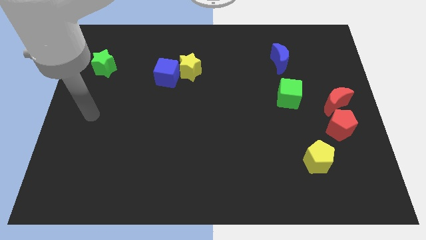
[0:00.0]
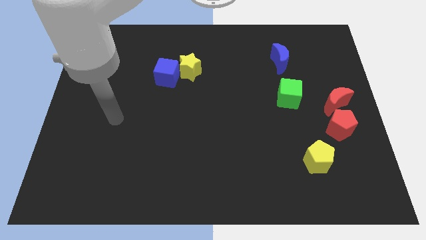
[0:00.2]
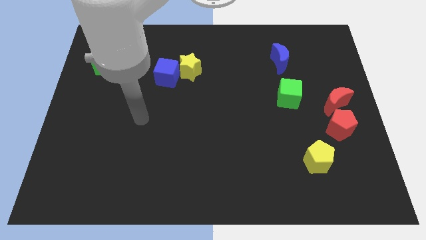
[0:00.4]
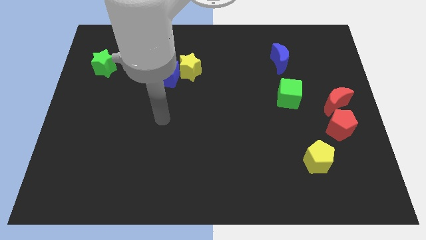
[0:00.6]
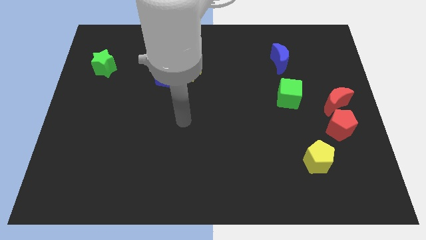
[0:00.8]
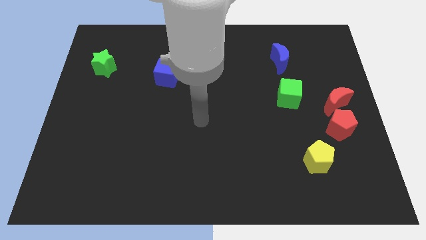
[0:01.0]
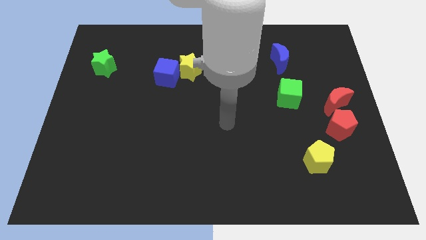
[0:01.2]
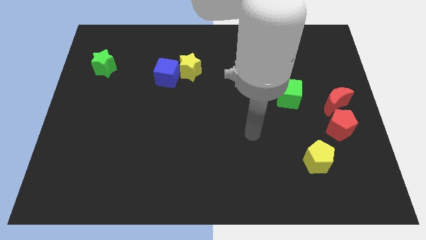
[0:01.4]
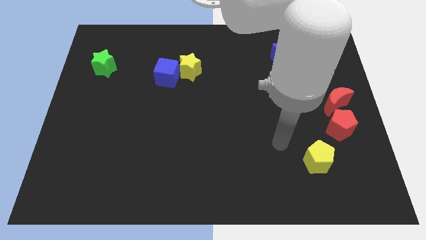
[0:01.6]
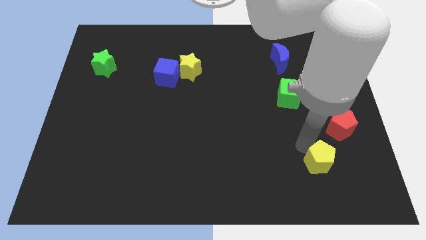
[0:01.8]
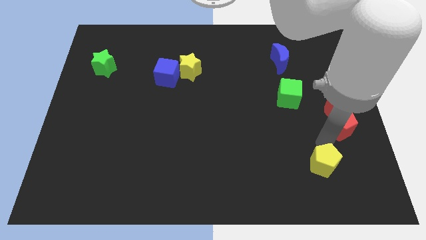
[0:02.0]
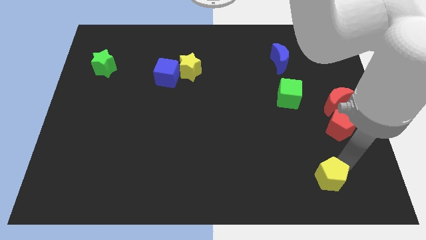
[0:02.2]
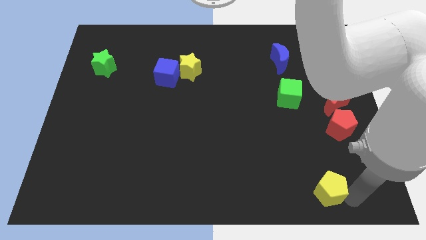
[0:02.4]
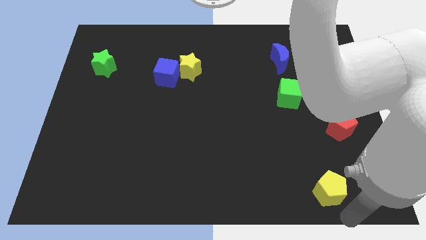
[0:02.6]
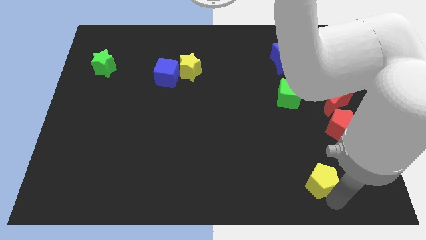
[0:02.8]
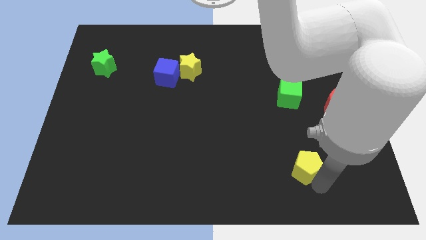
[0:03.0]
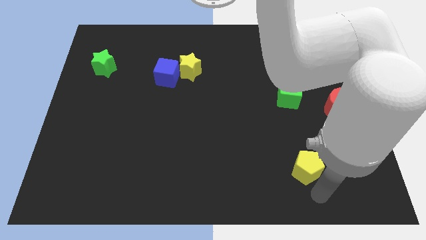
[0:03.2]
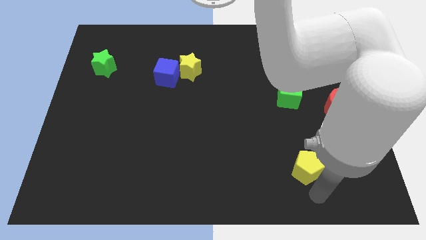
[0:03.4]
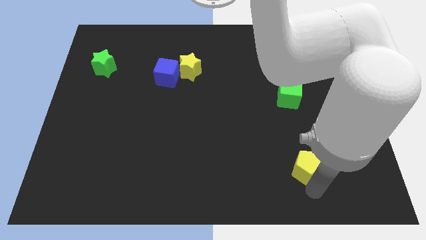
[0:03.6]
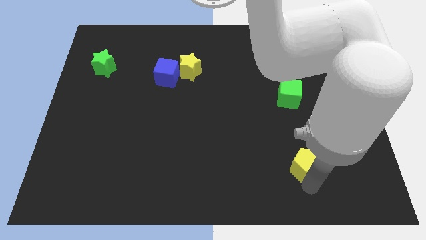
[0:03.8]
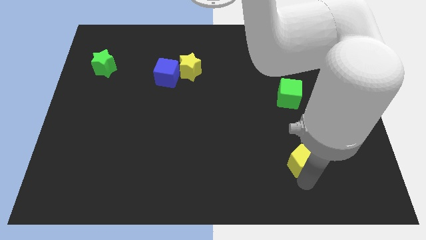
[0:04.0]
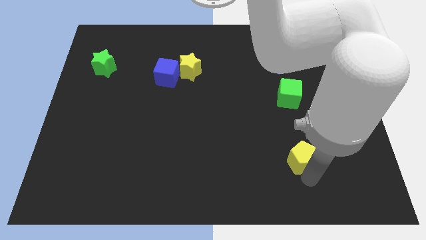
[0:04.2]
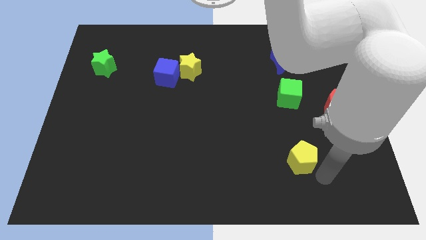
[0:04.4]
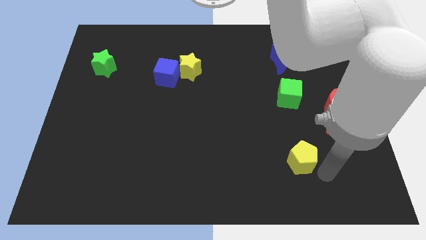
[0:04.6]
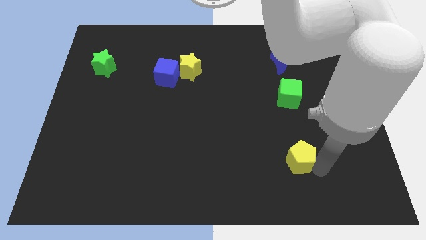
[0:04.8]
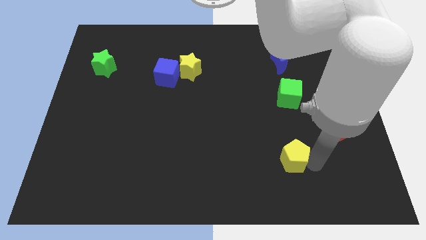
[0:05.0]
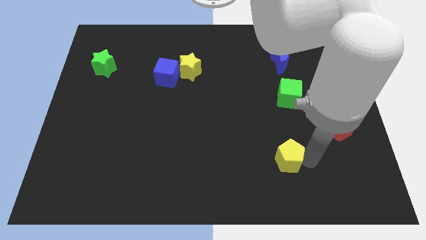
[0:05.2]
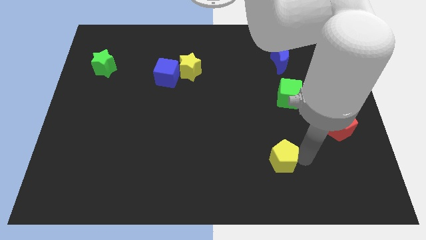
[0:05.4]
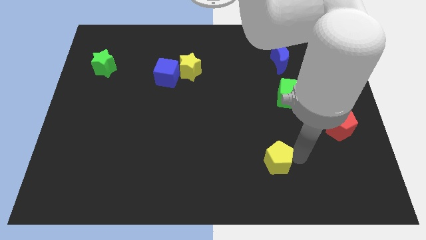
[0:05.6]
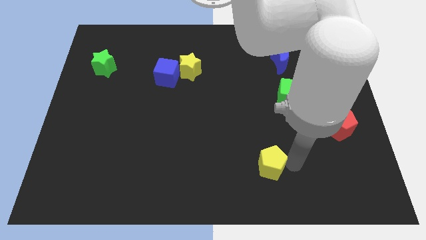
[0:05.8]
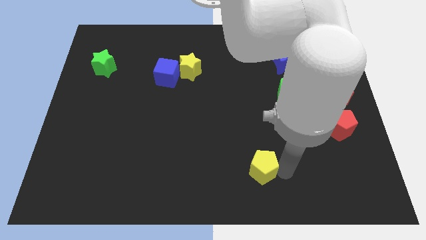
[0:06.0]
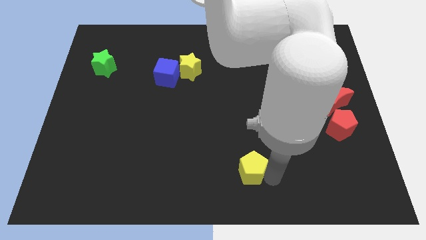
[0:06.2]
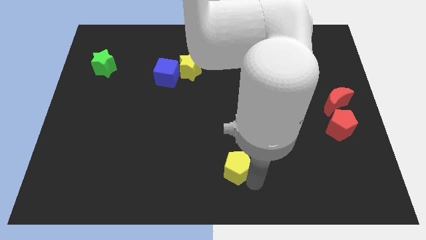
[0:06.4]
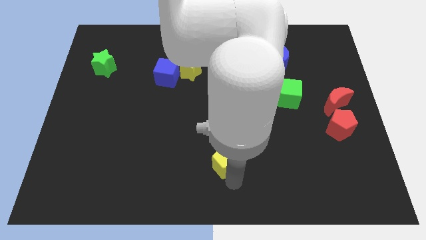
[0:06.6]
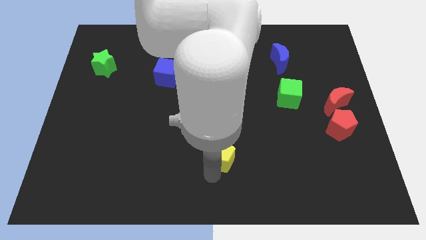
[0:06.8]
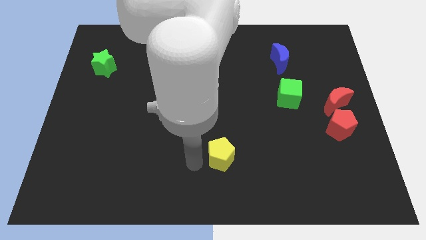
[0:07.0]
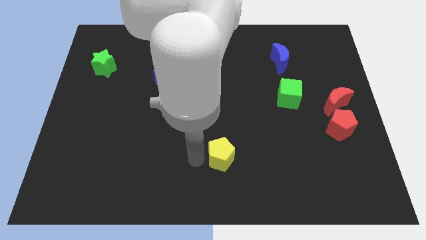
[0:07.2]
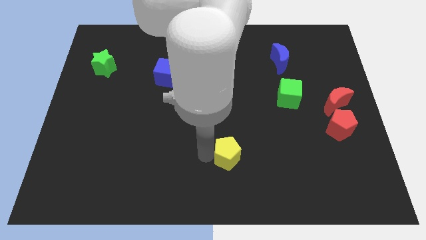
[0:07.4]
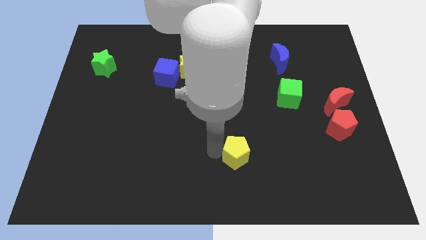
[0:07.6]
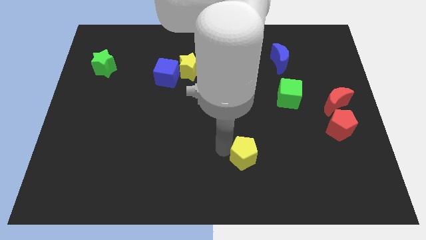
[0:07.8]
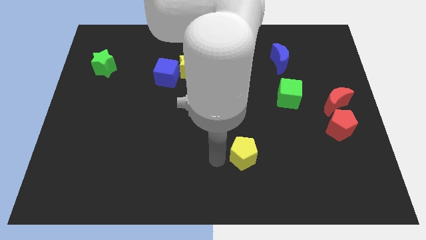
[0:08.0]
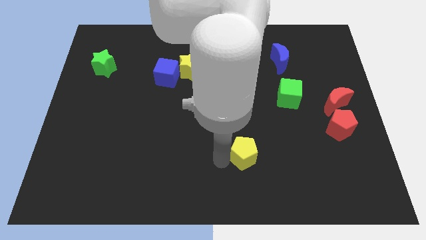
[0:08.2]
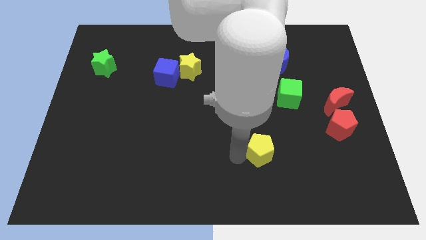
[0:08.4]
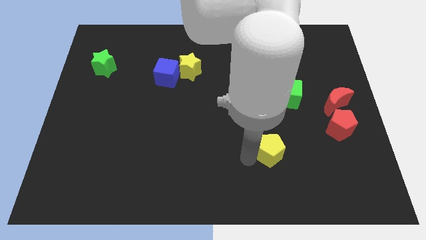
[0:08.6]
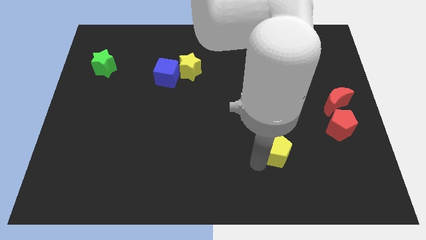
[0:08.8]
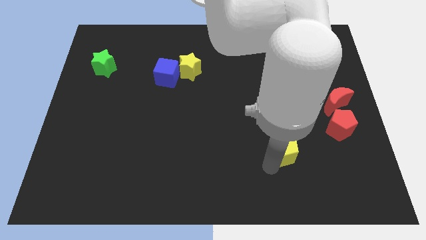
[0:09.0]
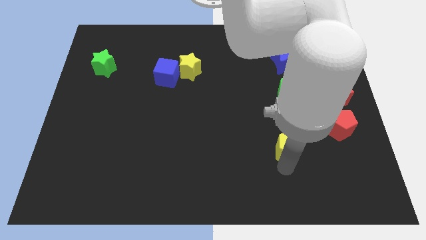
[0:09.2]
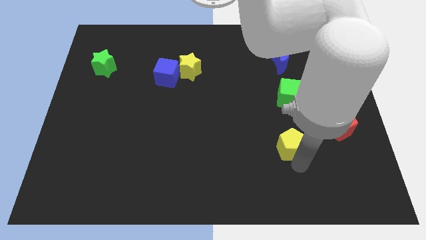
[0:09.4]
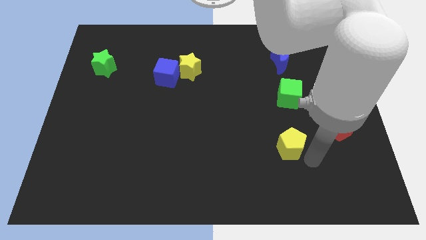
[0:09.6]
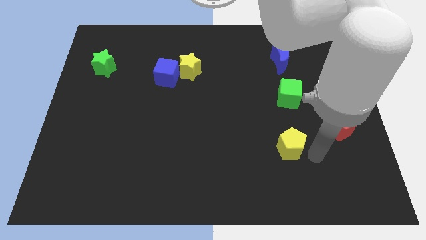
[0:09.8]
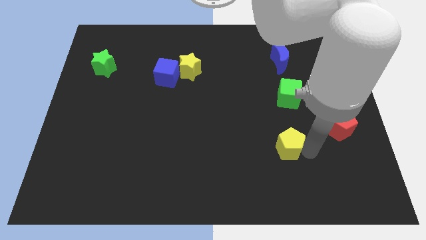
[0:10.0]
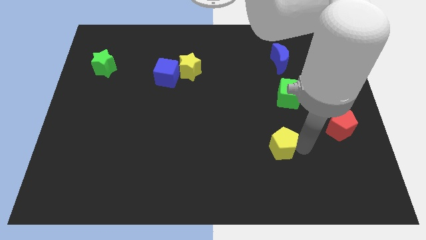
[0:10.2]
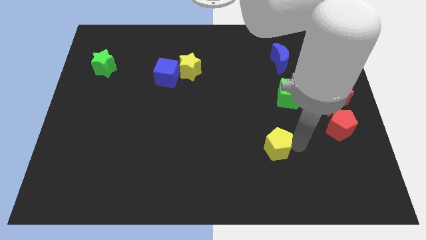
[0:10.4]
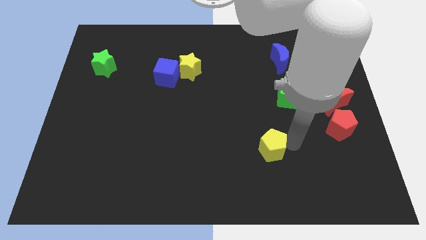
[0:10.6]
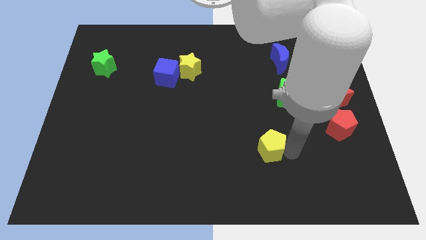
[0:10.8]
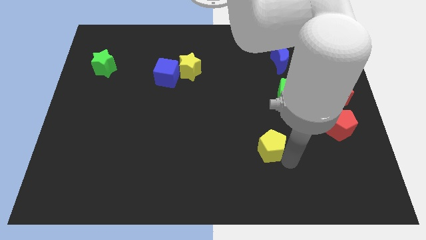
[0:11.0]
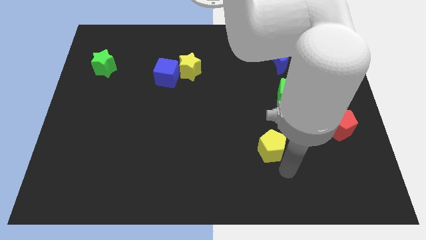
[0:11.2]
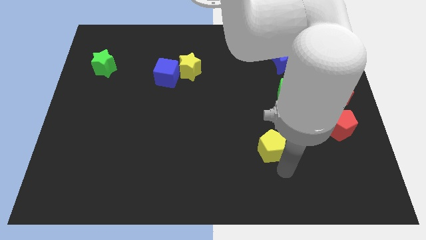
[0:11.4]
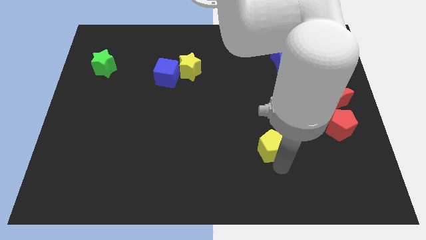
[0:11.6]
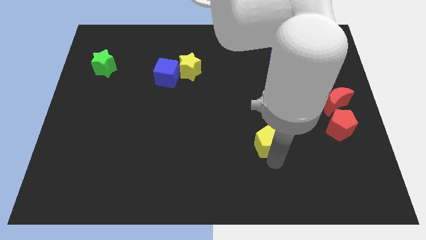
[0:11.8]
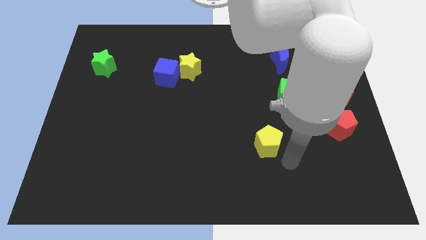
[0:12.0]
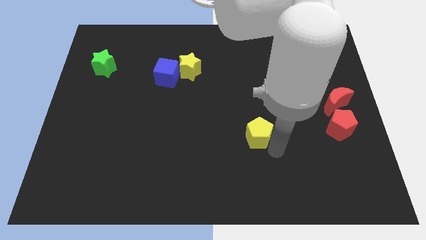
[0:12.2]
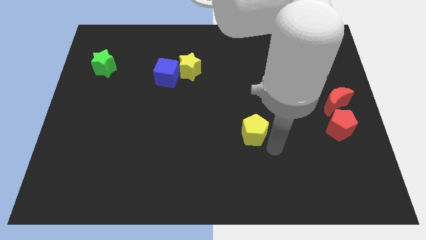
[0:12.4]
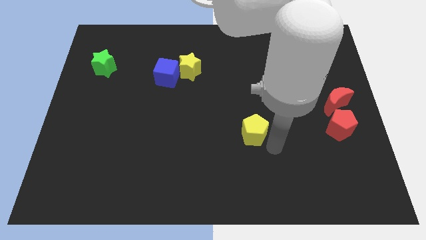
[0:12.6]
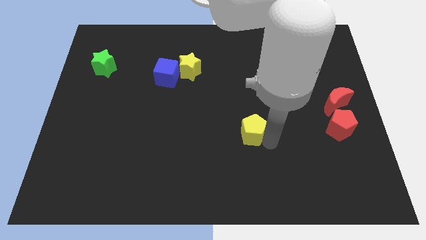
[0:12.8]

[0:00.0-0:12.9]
put the yellow pentagon to the middle

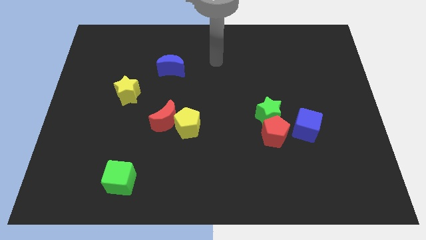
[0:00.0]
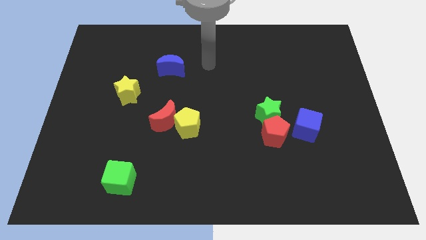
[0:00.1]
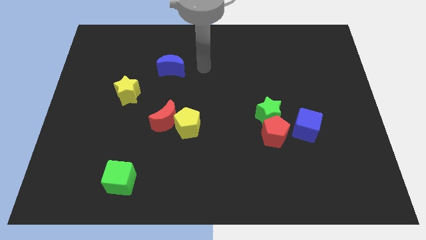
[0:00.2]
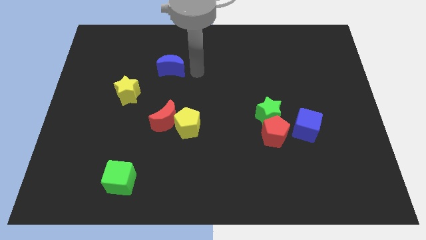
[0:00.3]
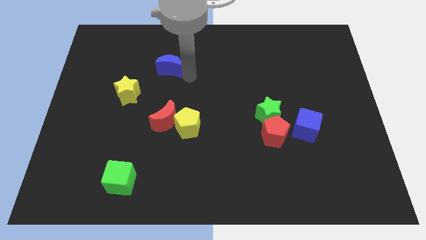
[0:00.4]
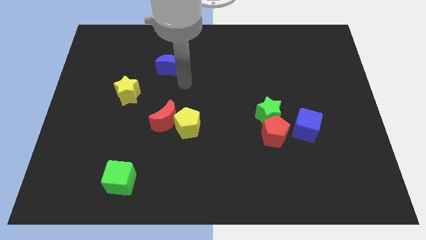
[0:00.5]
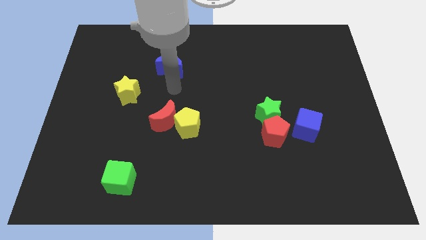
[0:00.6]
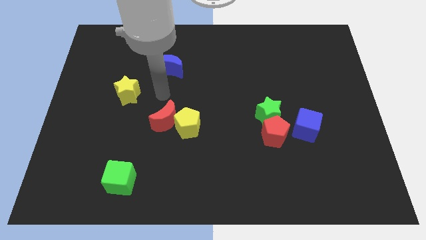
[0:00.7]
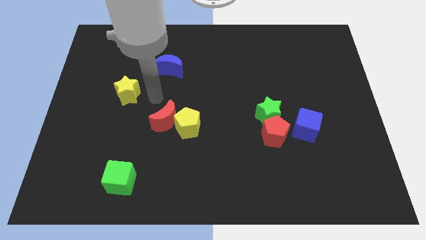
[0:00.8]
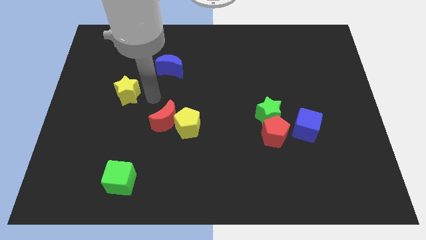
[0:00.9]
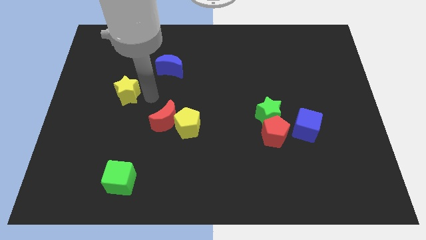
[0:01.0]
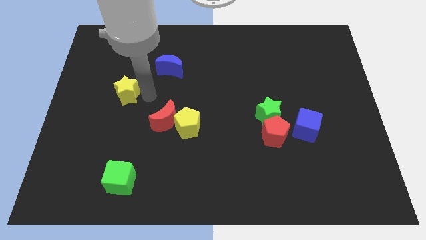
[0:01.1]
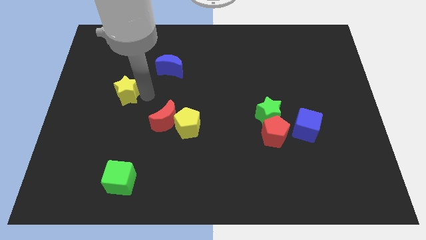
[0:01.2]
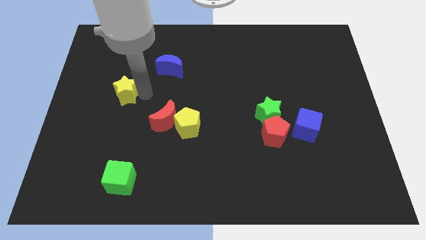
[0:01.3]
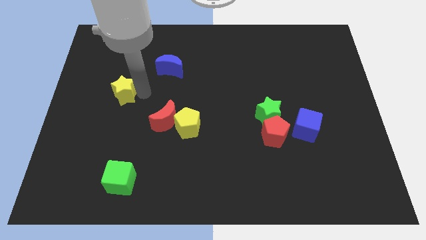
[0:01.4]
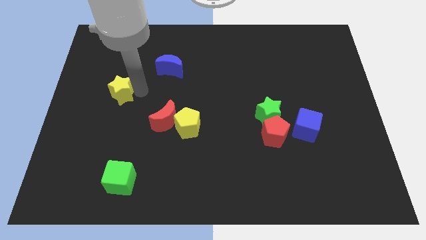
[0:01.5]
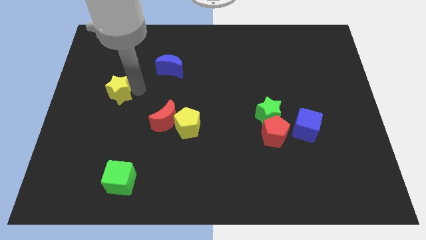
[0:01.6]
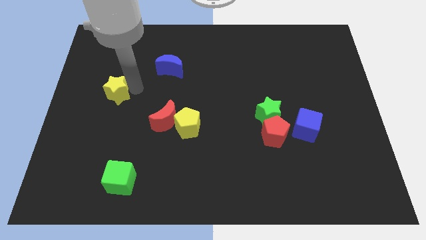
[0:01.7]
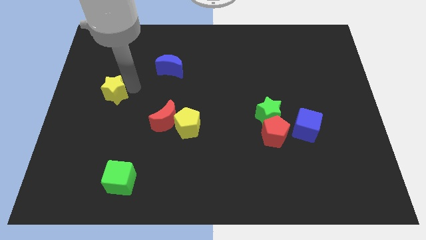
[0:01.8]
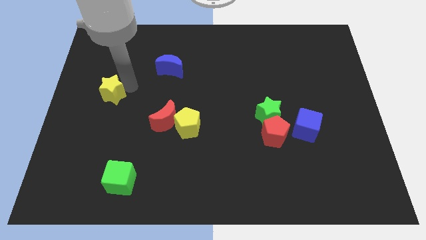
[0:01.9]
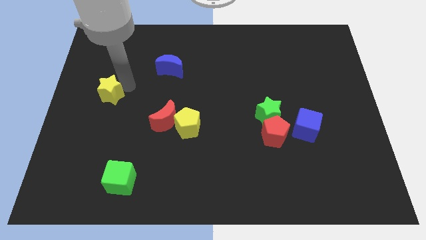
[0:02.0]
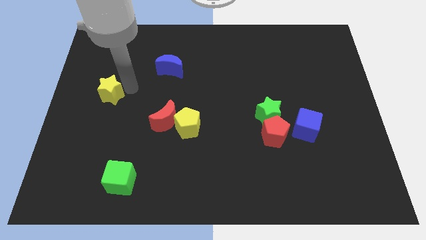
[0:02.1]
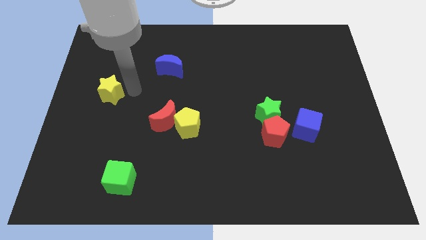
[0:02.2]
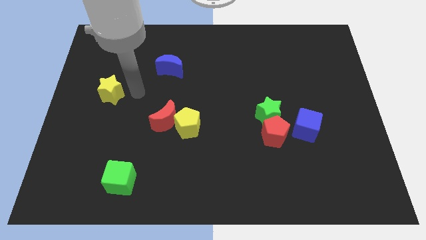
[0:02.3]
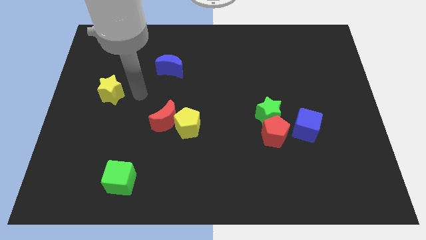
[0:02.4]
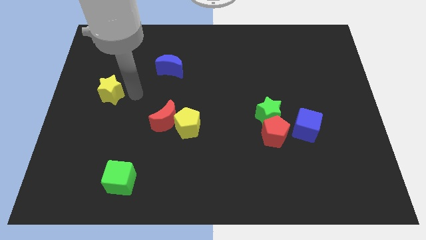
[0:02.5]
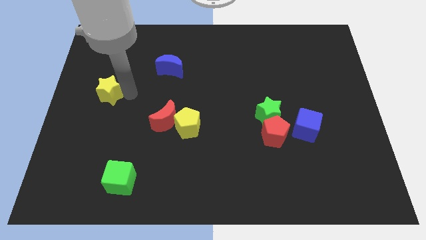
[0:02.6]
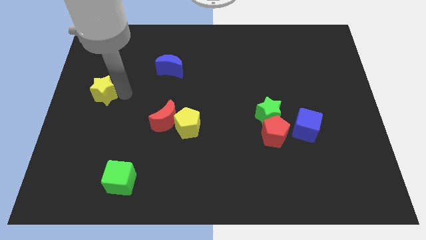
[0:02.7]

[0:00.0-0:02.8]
move the yellow star to the center left
